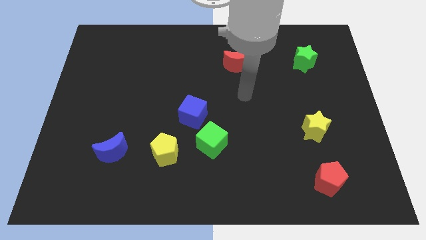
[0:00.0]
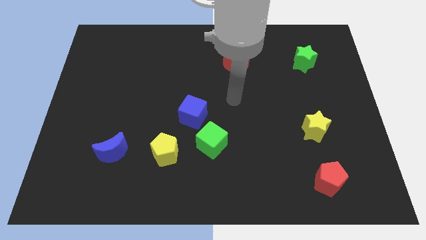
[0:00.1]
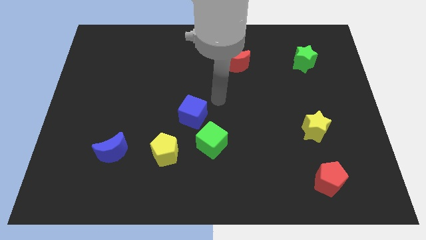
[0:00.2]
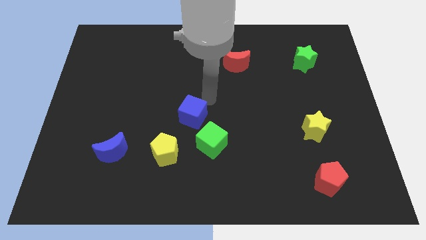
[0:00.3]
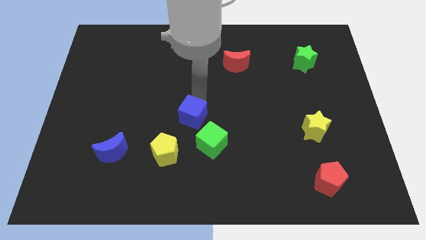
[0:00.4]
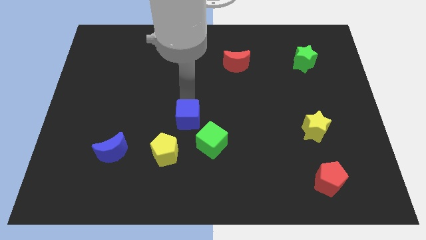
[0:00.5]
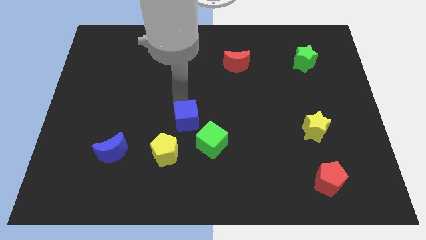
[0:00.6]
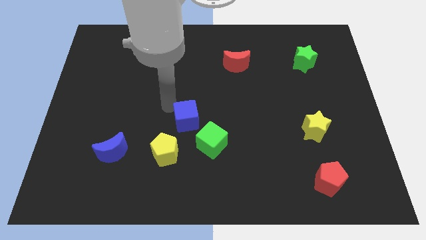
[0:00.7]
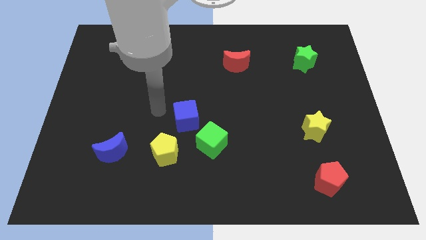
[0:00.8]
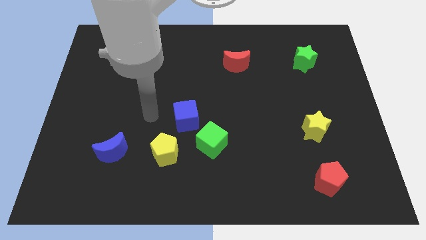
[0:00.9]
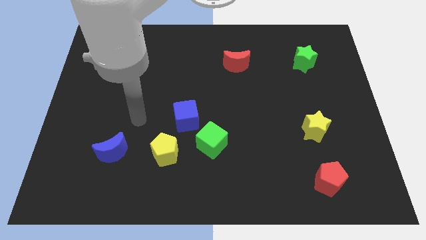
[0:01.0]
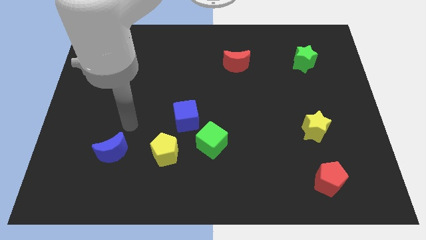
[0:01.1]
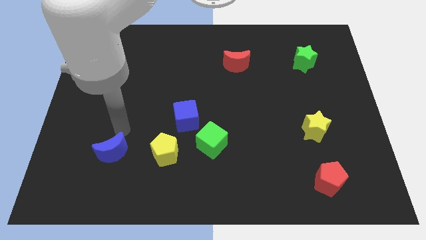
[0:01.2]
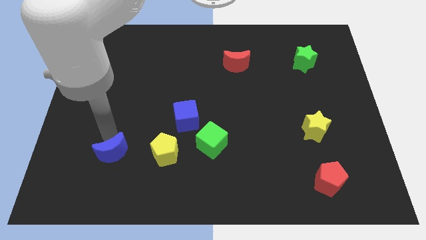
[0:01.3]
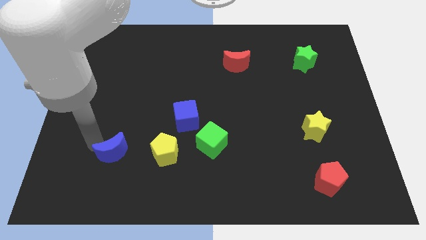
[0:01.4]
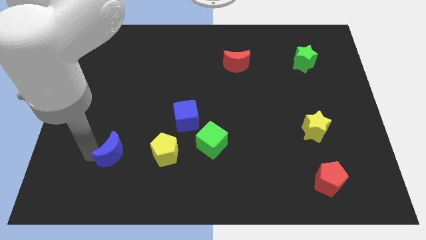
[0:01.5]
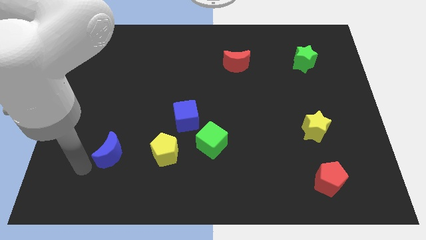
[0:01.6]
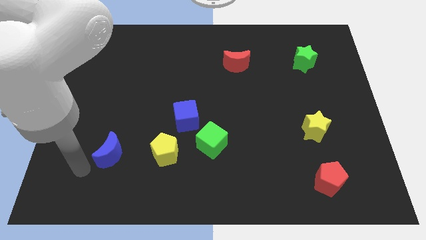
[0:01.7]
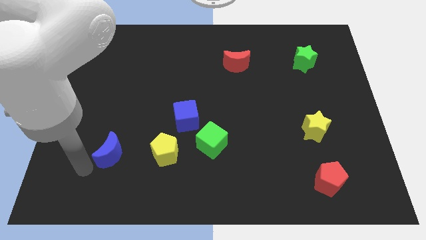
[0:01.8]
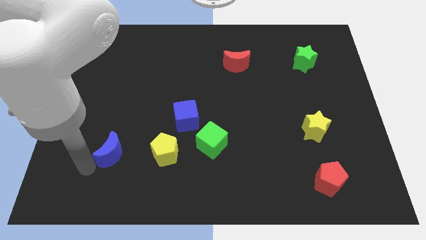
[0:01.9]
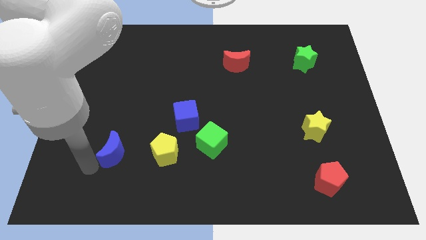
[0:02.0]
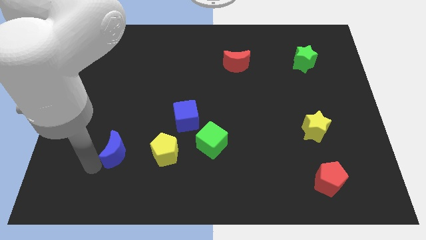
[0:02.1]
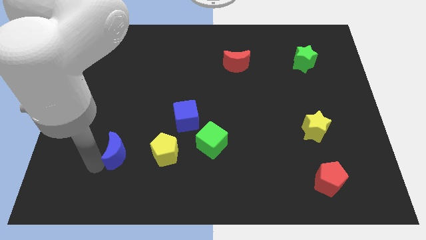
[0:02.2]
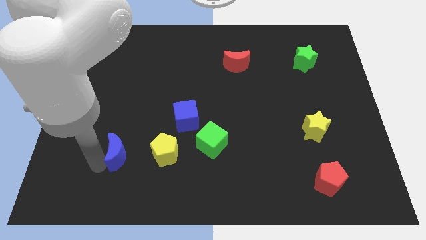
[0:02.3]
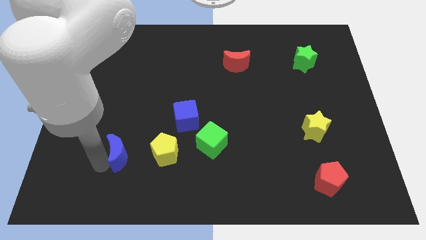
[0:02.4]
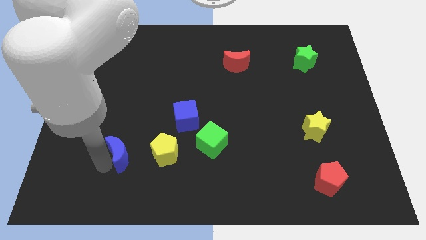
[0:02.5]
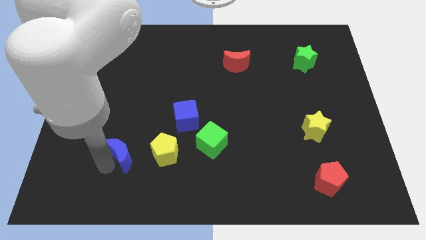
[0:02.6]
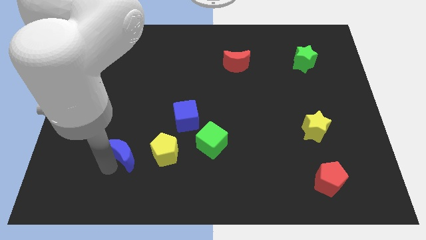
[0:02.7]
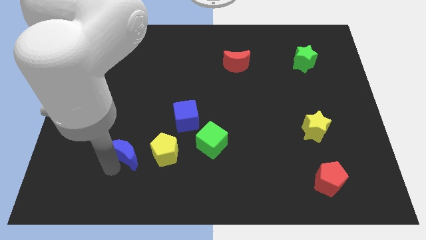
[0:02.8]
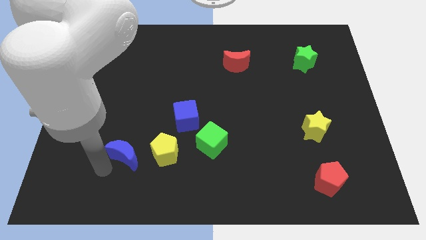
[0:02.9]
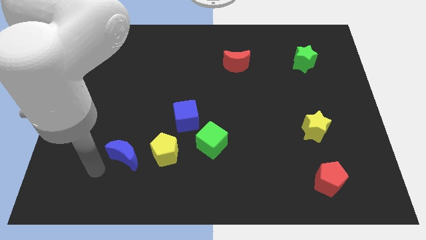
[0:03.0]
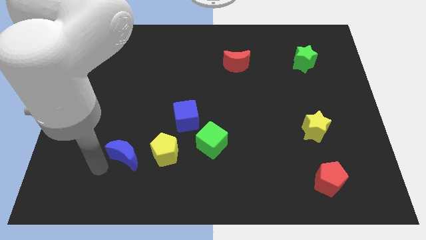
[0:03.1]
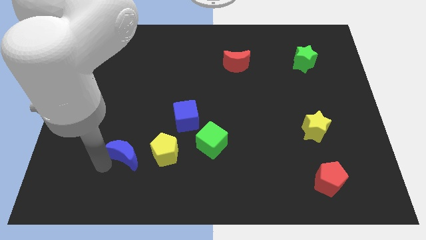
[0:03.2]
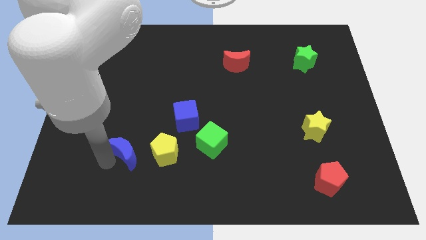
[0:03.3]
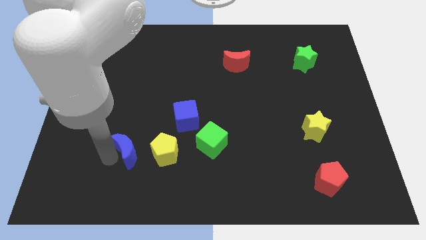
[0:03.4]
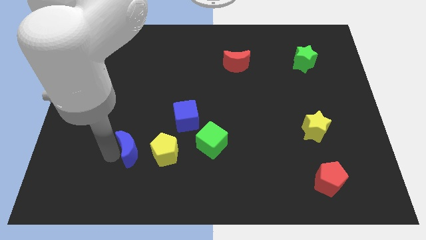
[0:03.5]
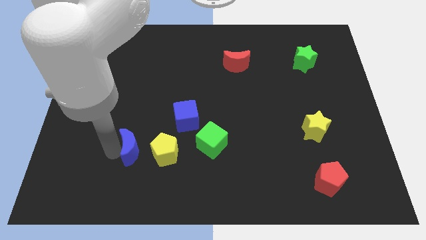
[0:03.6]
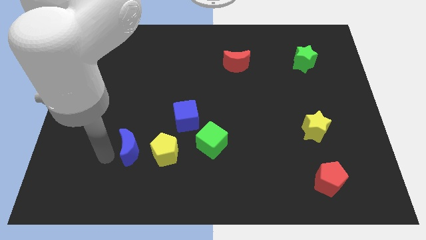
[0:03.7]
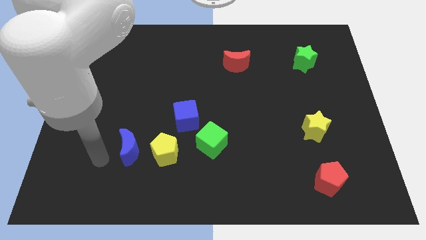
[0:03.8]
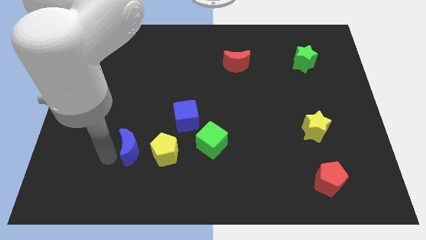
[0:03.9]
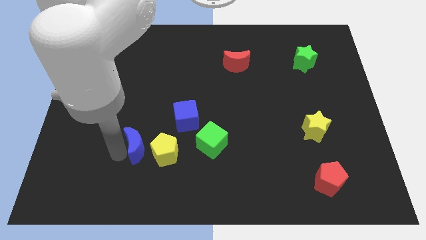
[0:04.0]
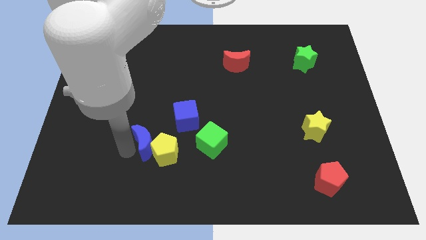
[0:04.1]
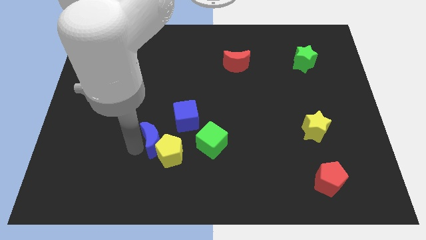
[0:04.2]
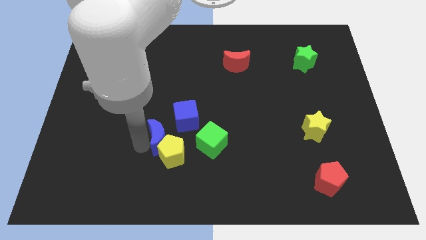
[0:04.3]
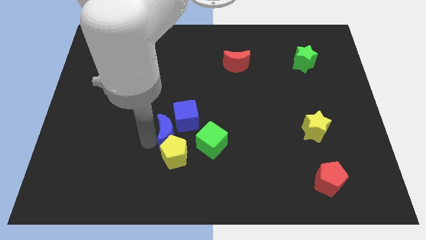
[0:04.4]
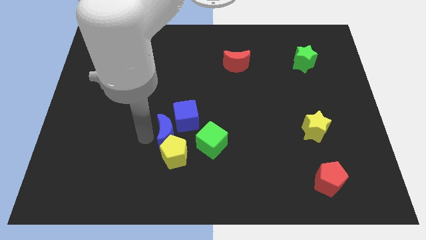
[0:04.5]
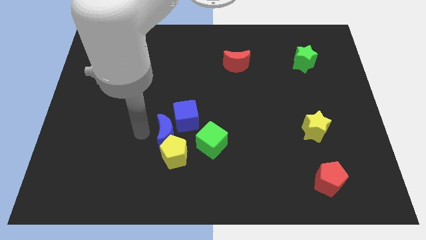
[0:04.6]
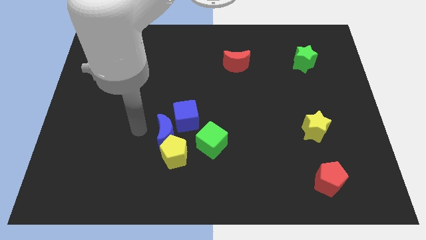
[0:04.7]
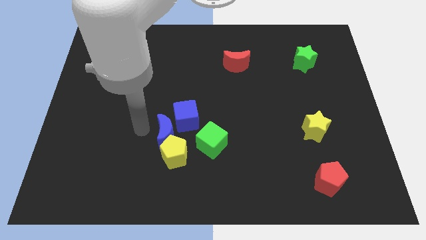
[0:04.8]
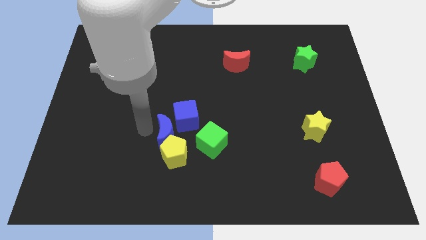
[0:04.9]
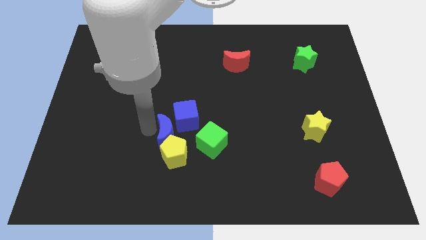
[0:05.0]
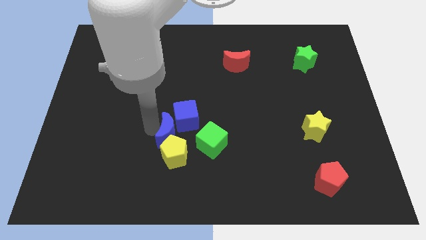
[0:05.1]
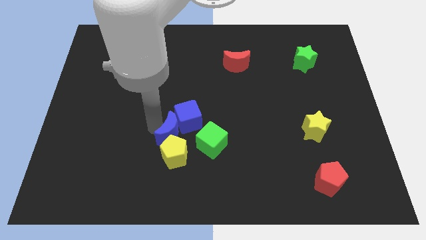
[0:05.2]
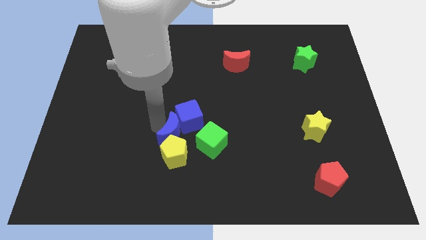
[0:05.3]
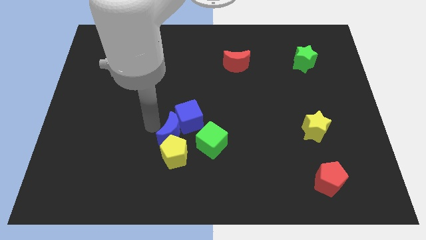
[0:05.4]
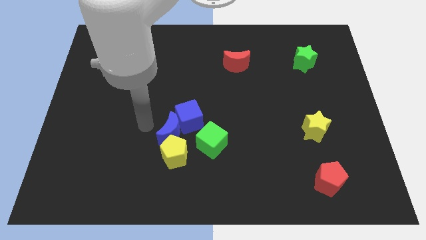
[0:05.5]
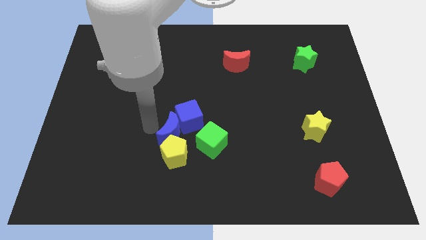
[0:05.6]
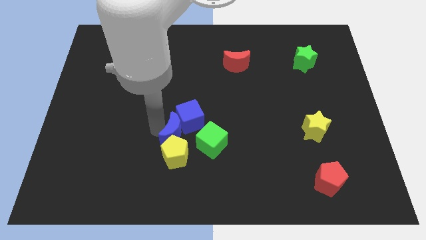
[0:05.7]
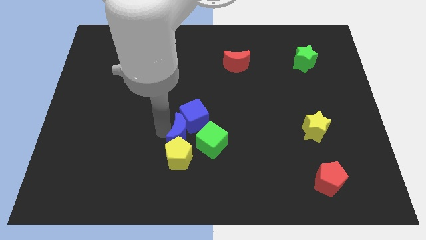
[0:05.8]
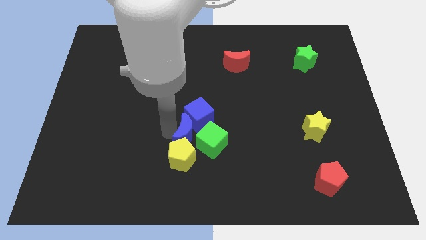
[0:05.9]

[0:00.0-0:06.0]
push the blue moon next to the green cube

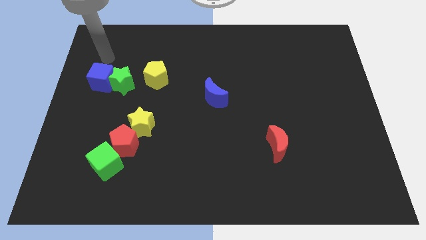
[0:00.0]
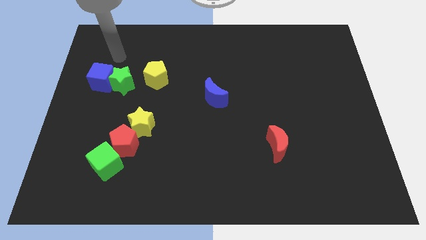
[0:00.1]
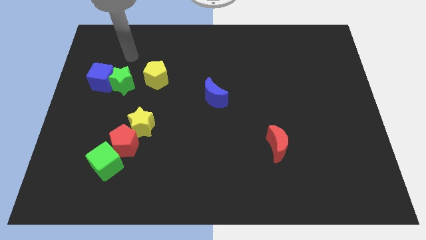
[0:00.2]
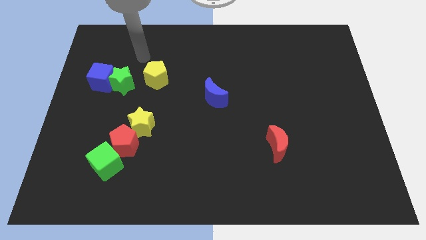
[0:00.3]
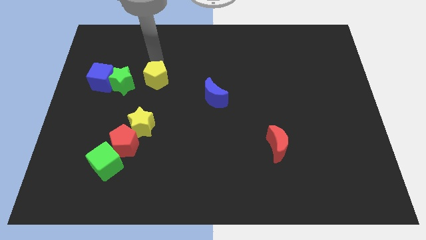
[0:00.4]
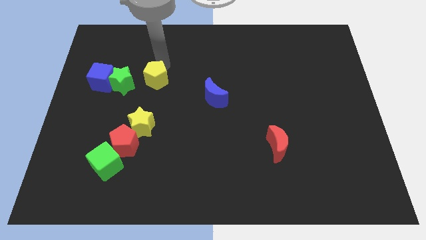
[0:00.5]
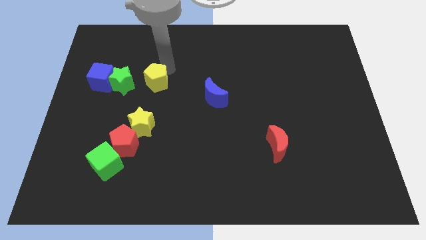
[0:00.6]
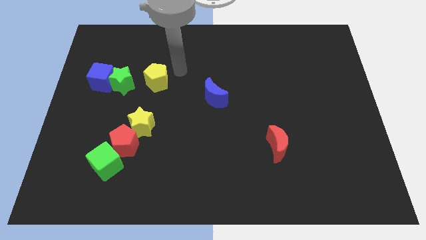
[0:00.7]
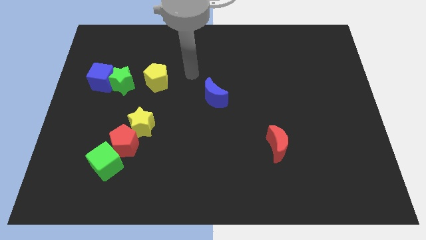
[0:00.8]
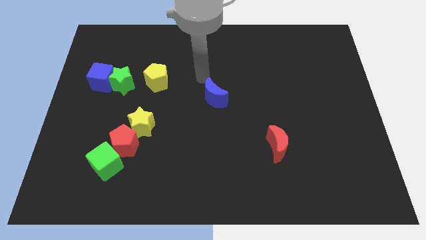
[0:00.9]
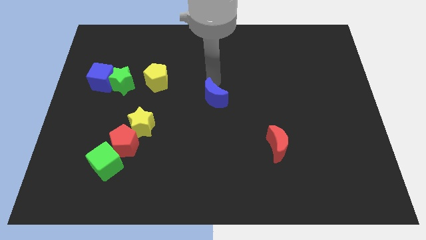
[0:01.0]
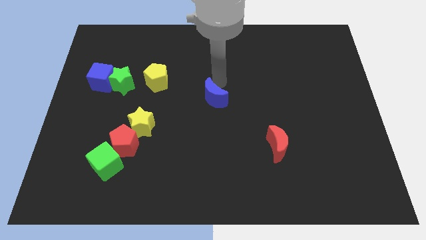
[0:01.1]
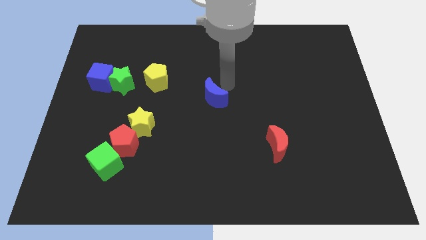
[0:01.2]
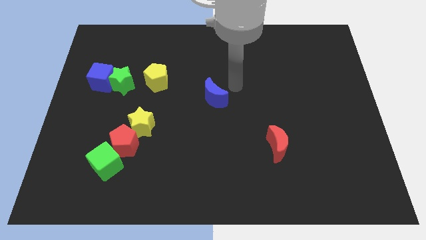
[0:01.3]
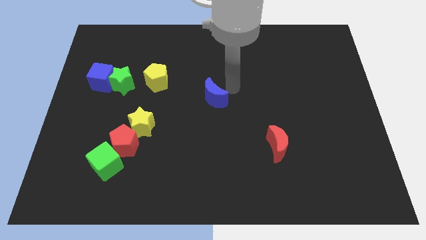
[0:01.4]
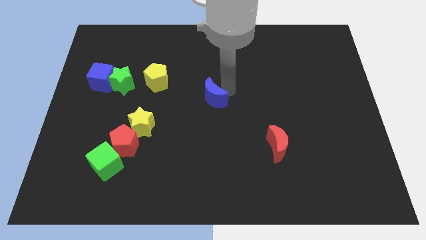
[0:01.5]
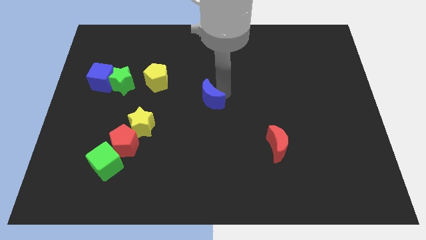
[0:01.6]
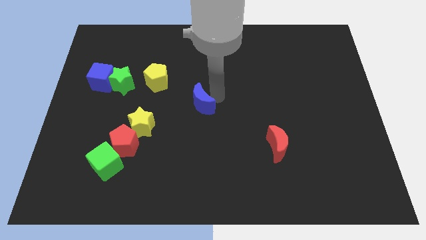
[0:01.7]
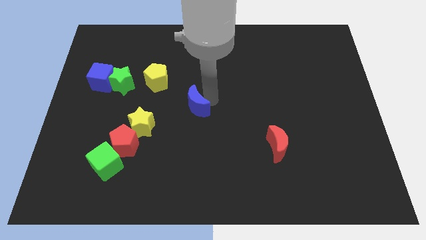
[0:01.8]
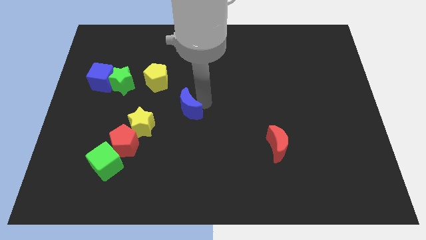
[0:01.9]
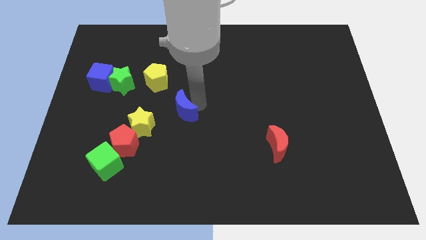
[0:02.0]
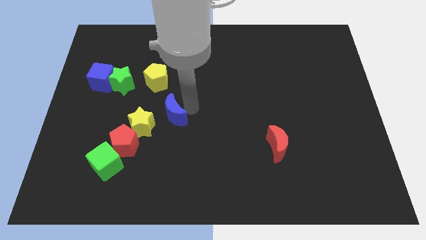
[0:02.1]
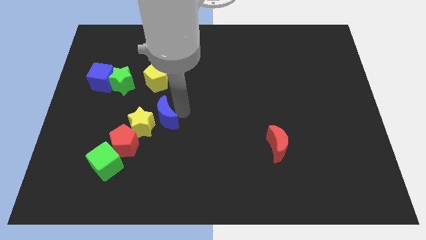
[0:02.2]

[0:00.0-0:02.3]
move the blue moon close to the yellow star
